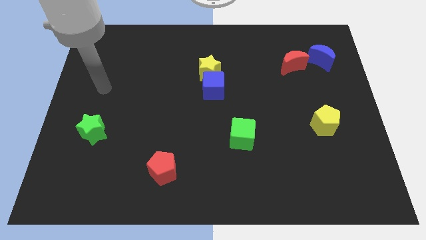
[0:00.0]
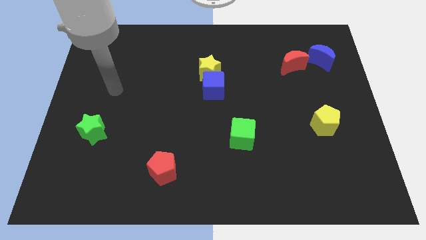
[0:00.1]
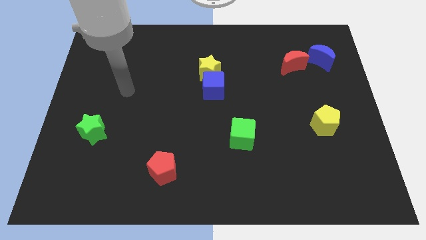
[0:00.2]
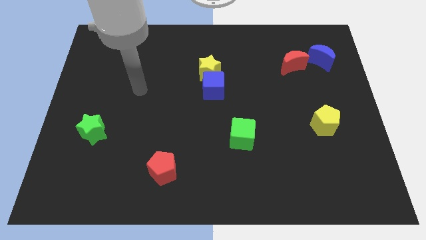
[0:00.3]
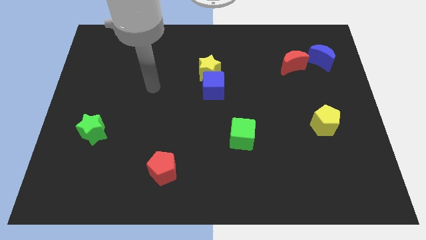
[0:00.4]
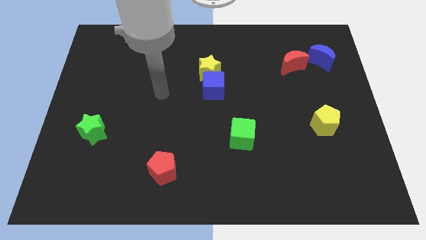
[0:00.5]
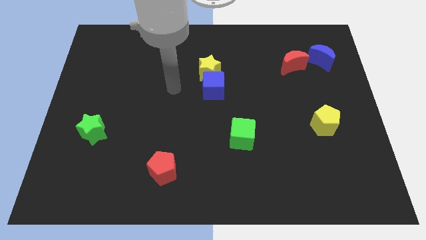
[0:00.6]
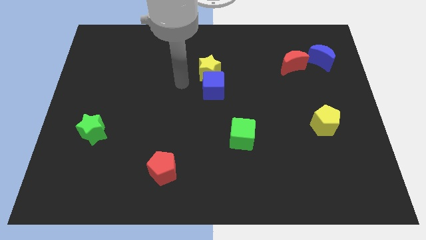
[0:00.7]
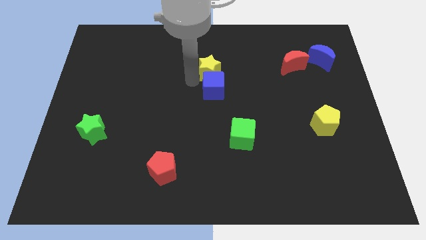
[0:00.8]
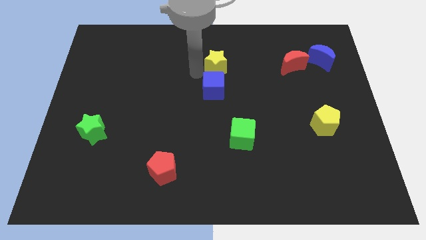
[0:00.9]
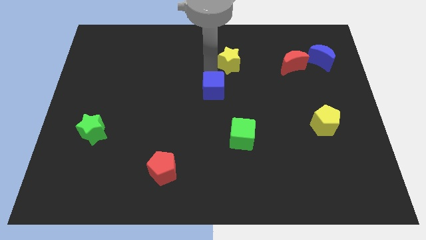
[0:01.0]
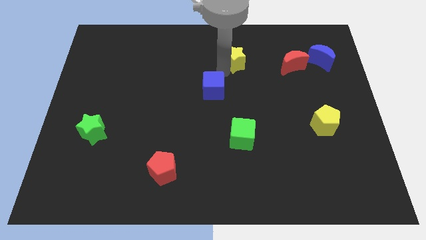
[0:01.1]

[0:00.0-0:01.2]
separate the blue cube from the yellow star

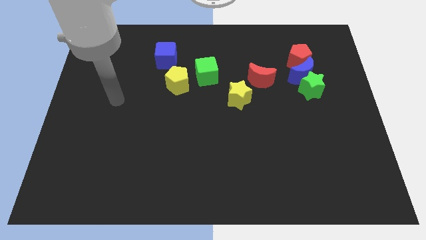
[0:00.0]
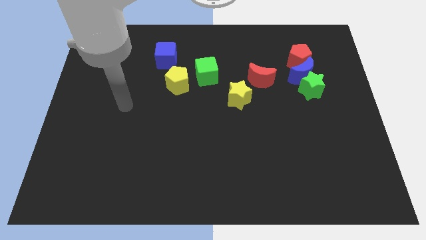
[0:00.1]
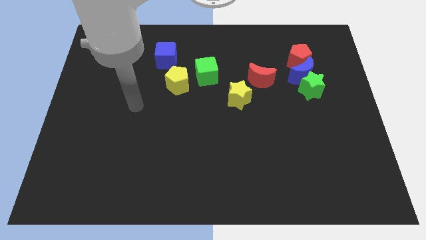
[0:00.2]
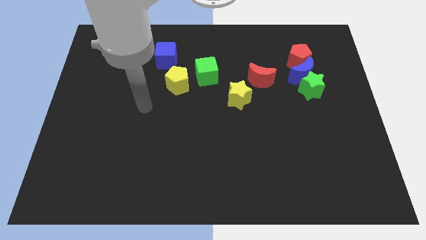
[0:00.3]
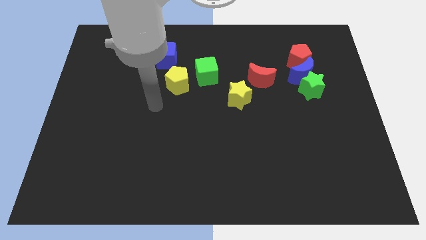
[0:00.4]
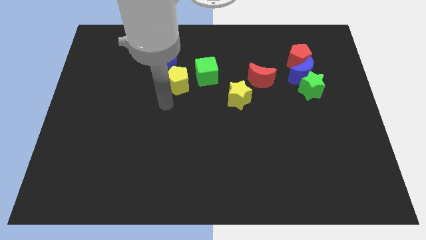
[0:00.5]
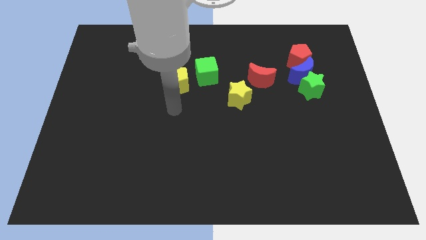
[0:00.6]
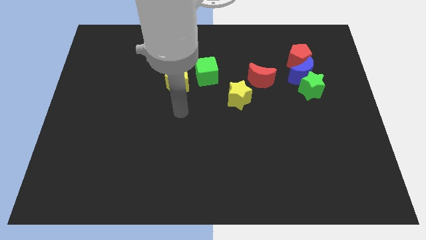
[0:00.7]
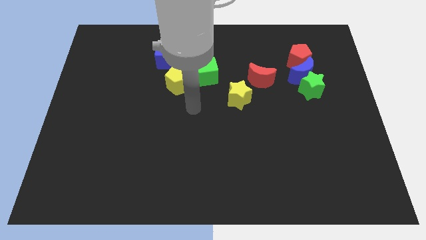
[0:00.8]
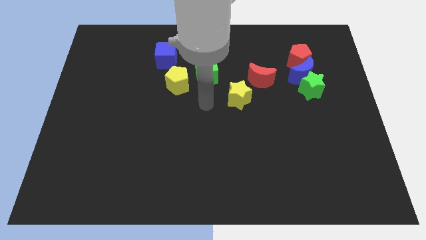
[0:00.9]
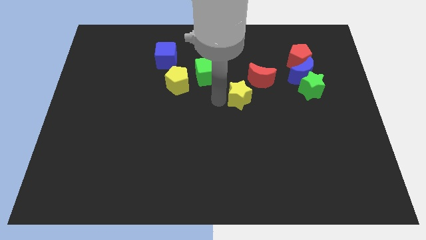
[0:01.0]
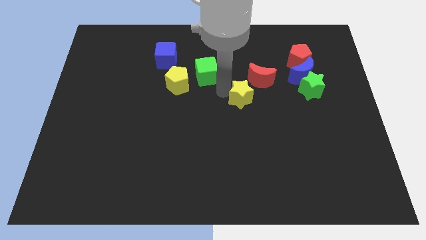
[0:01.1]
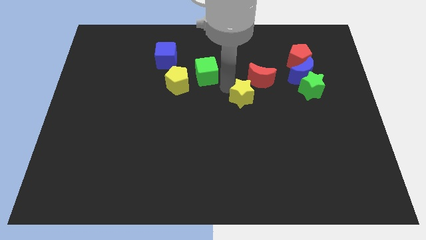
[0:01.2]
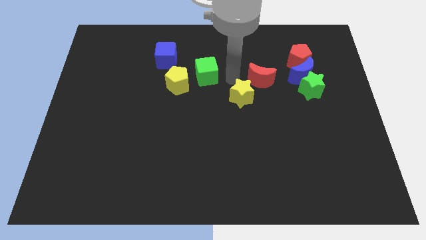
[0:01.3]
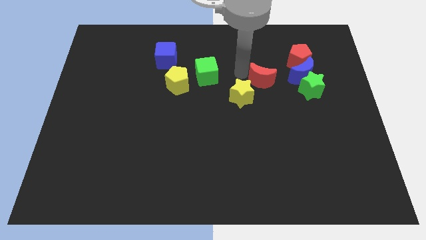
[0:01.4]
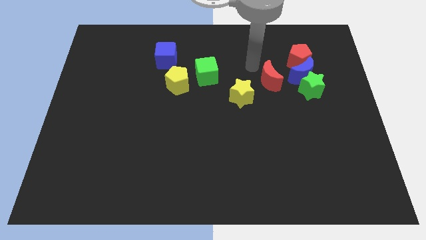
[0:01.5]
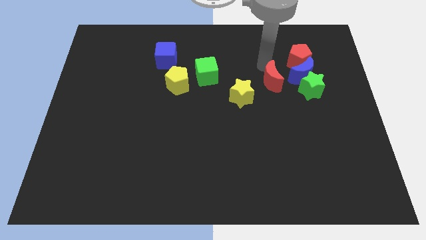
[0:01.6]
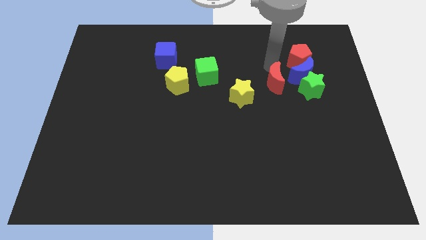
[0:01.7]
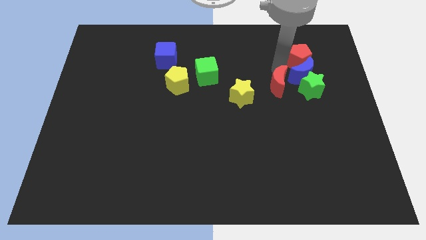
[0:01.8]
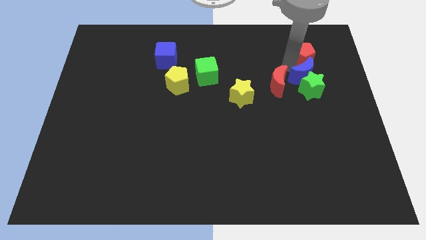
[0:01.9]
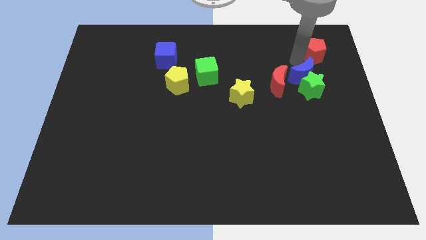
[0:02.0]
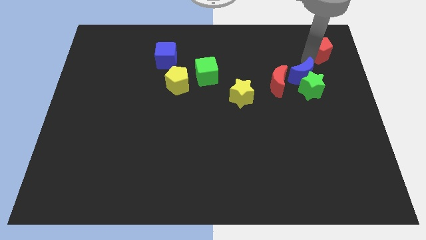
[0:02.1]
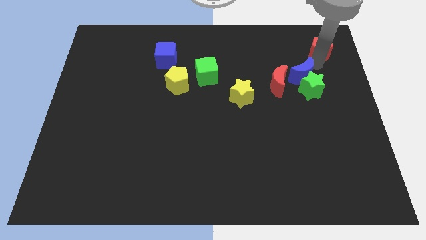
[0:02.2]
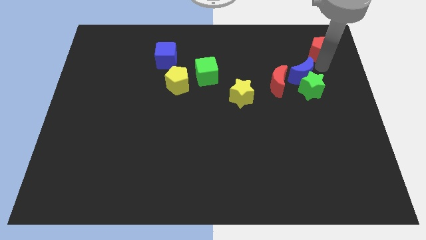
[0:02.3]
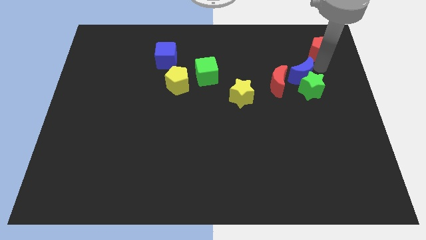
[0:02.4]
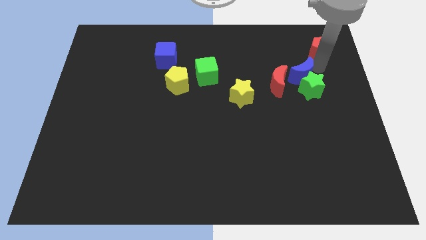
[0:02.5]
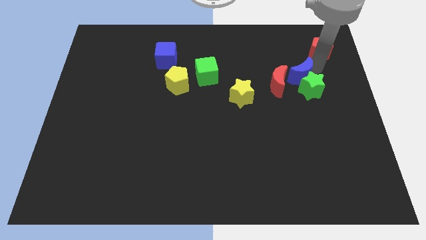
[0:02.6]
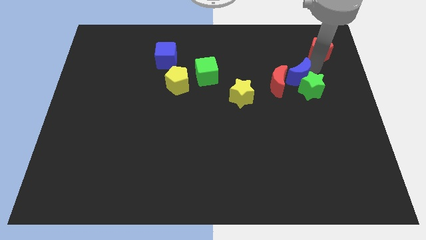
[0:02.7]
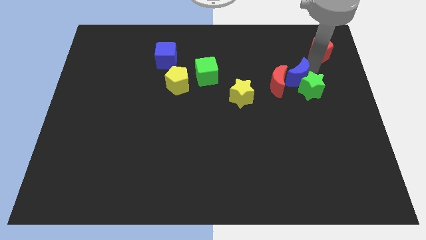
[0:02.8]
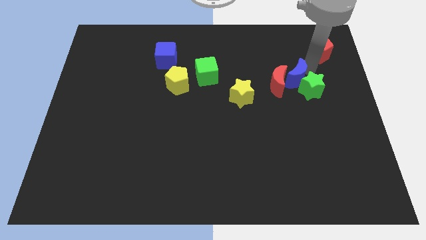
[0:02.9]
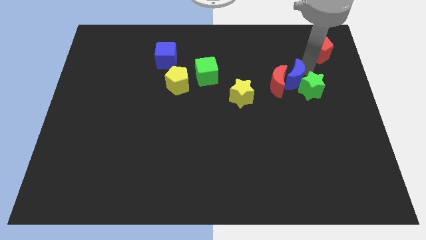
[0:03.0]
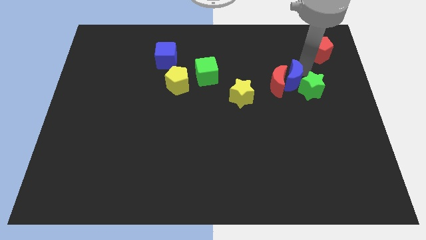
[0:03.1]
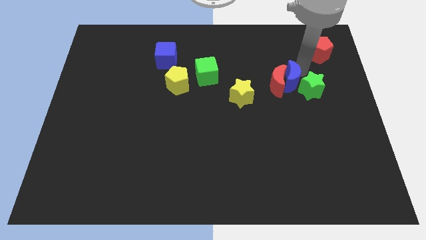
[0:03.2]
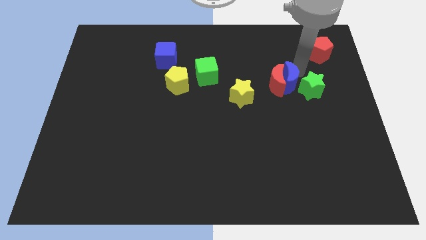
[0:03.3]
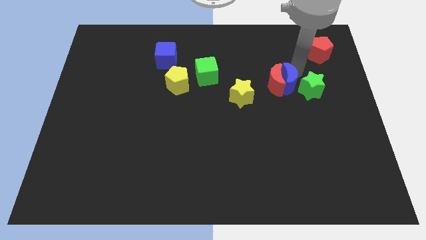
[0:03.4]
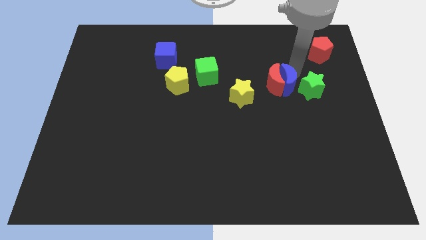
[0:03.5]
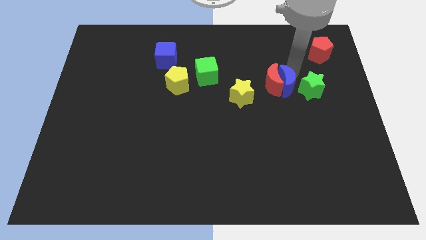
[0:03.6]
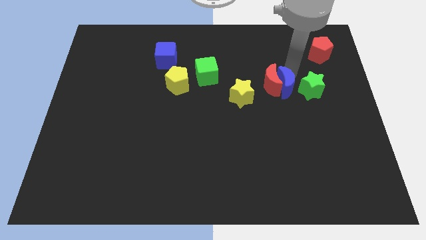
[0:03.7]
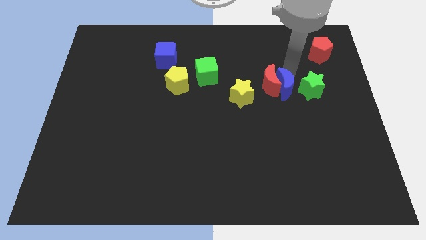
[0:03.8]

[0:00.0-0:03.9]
move the blue moon away from the green star and red pentagon

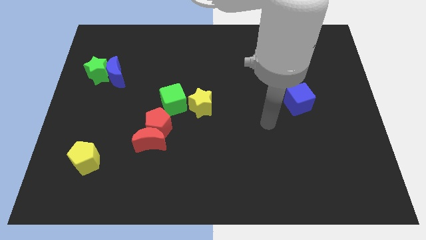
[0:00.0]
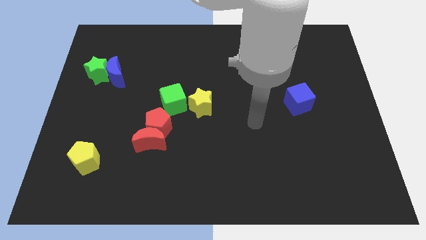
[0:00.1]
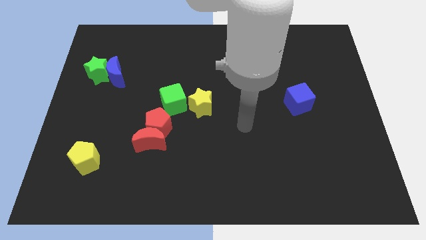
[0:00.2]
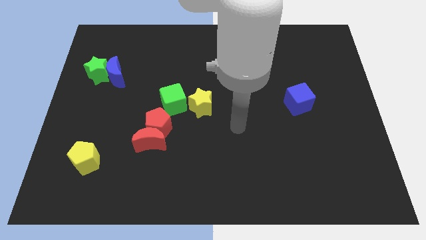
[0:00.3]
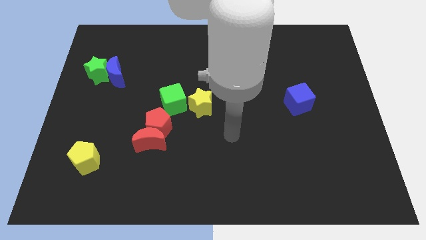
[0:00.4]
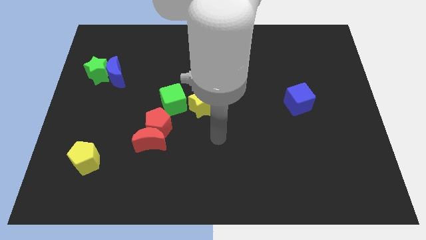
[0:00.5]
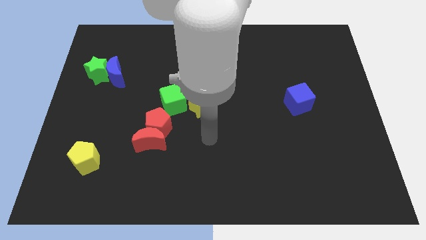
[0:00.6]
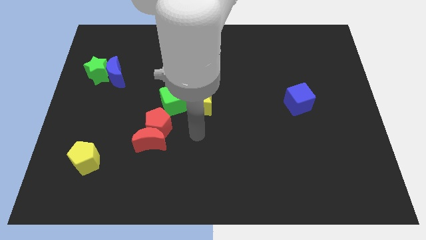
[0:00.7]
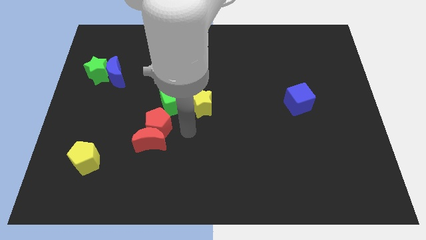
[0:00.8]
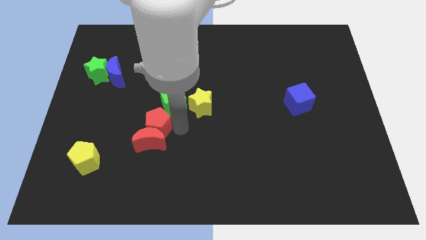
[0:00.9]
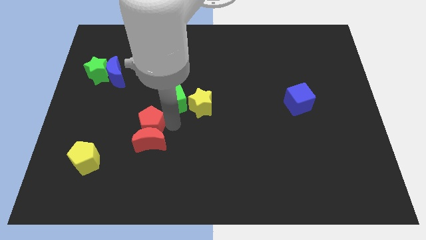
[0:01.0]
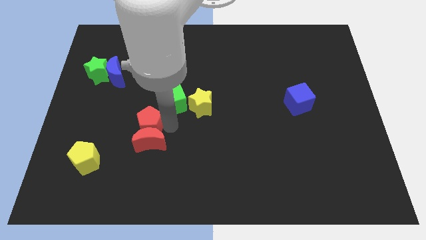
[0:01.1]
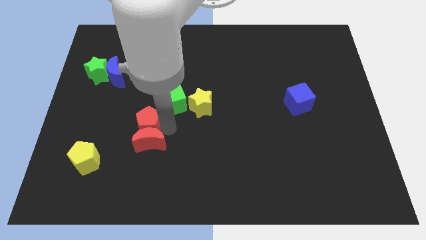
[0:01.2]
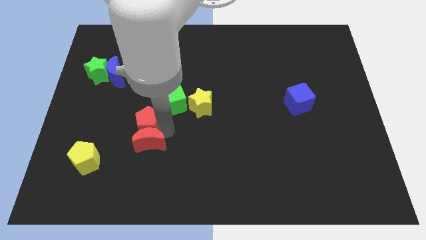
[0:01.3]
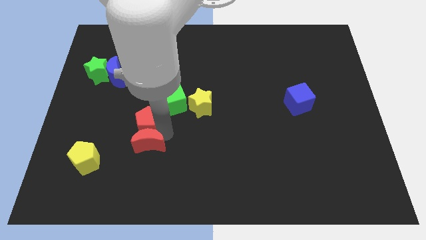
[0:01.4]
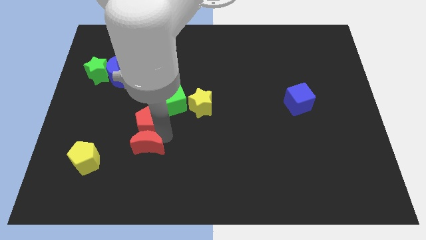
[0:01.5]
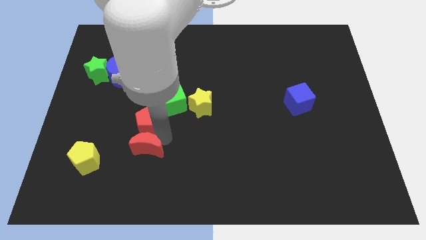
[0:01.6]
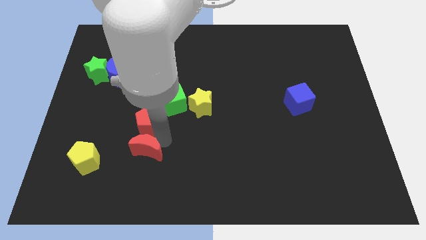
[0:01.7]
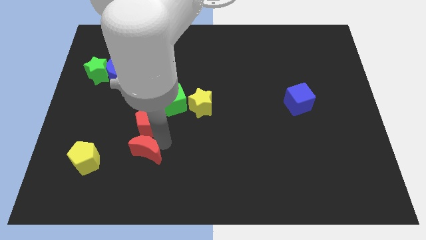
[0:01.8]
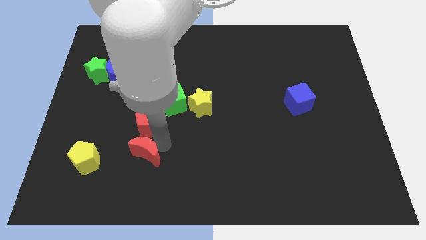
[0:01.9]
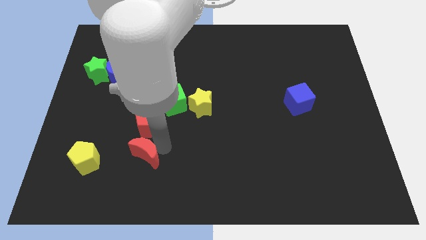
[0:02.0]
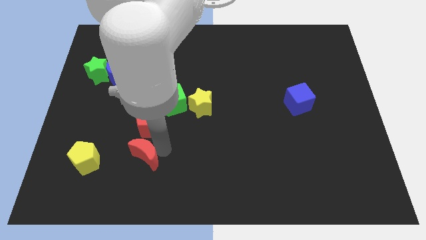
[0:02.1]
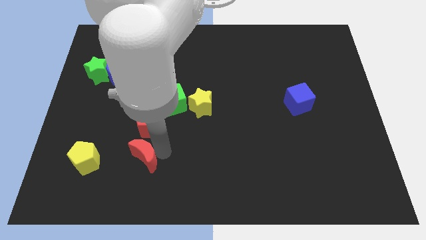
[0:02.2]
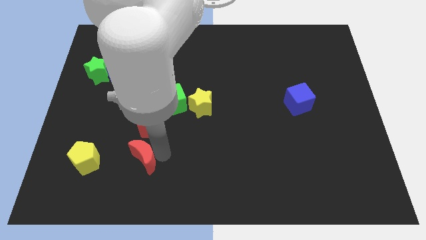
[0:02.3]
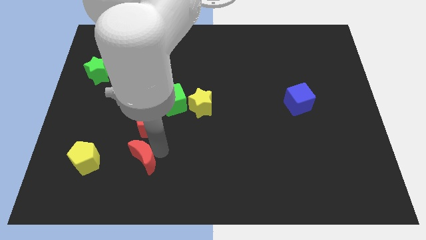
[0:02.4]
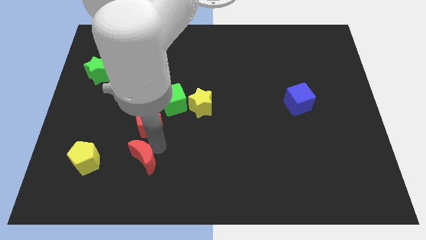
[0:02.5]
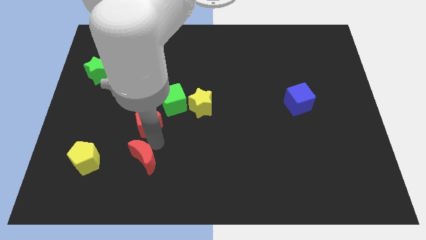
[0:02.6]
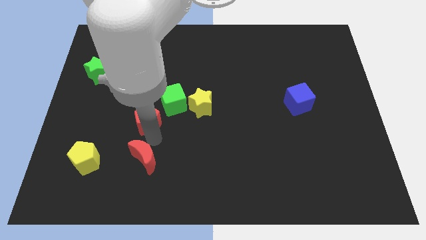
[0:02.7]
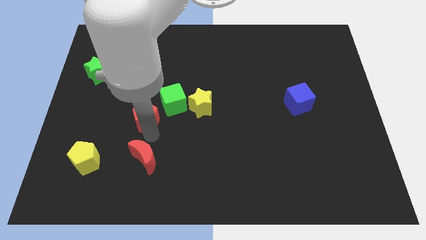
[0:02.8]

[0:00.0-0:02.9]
move the red moon away from the red pentagon

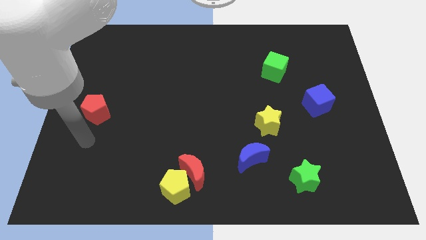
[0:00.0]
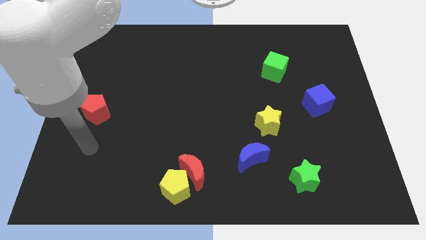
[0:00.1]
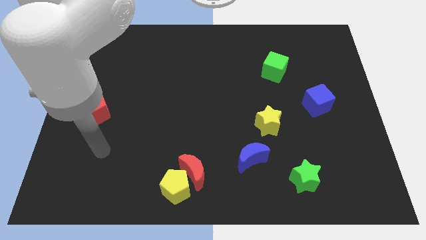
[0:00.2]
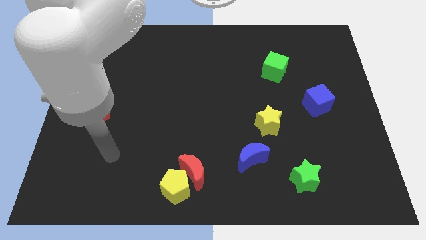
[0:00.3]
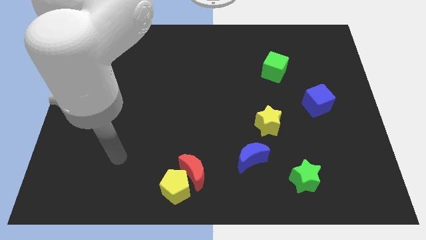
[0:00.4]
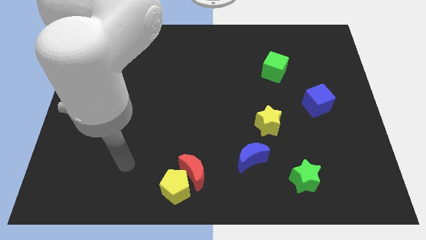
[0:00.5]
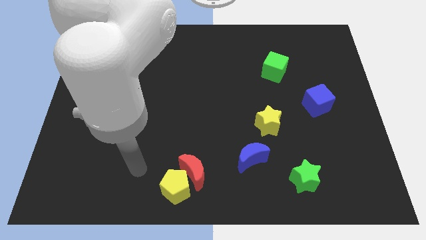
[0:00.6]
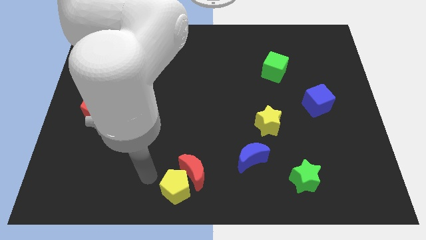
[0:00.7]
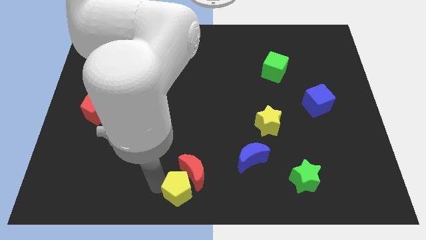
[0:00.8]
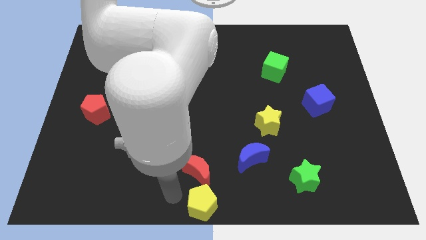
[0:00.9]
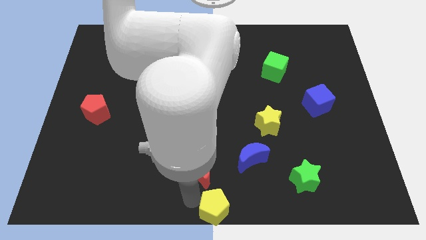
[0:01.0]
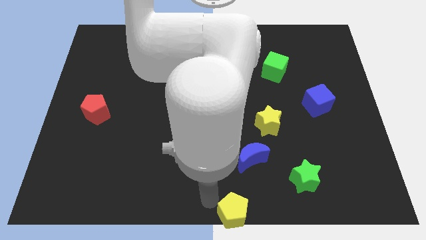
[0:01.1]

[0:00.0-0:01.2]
separate the red moon from the yellow pentagon

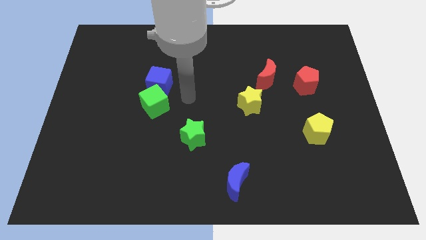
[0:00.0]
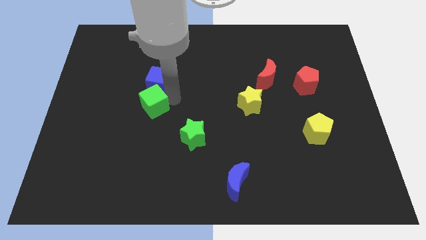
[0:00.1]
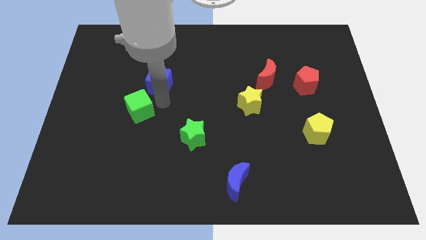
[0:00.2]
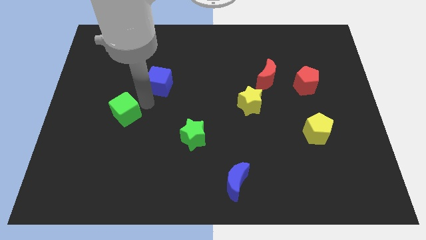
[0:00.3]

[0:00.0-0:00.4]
move the blue cube away from the green cube
